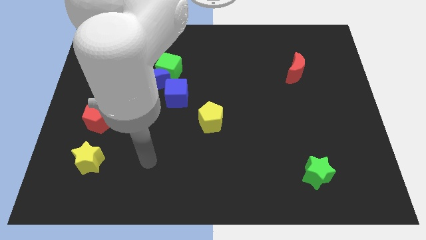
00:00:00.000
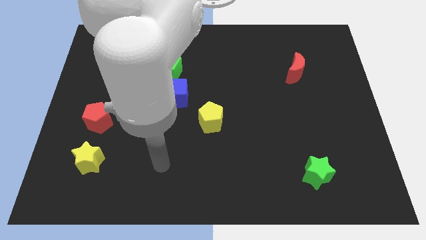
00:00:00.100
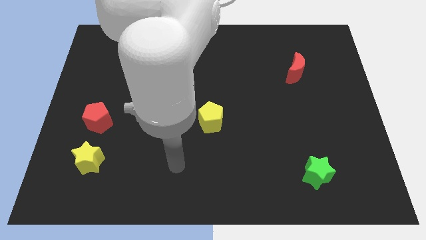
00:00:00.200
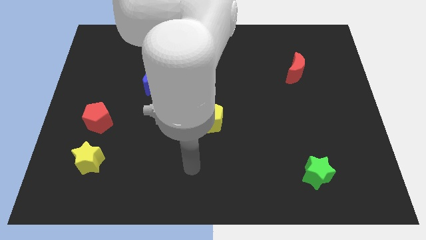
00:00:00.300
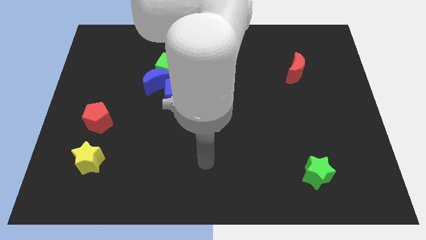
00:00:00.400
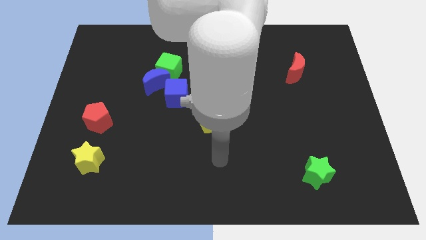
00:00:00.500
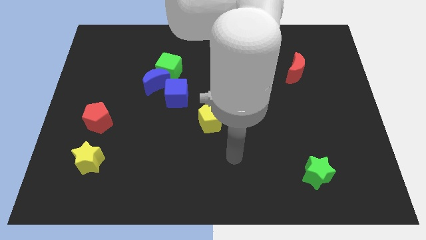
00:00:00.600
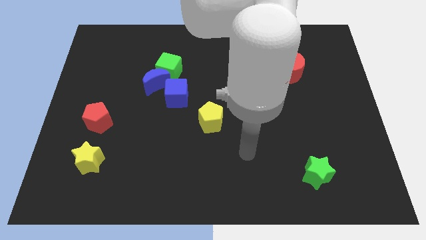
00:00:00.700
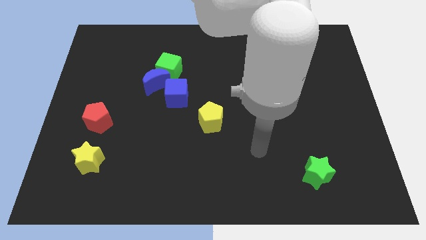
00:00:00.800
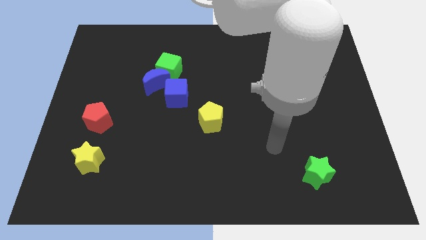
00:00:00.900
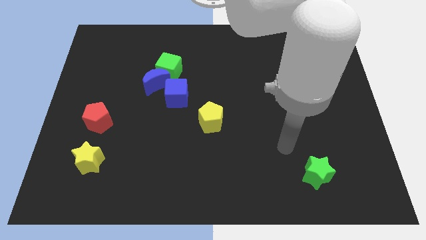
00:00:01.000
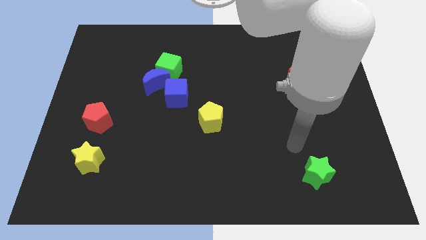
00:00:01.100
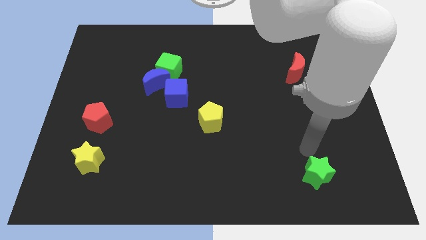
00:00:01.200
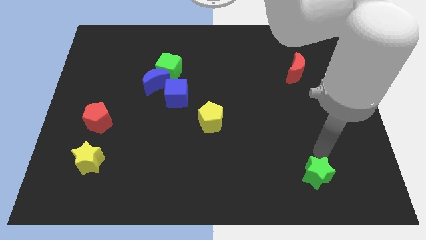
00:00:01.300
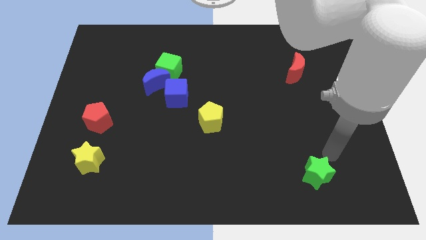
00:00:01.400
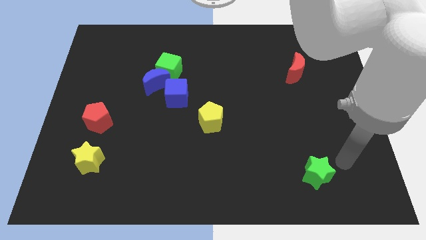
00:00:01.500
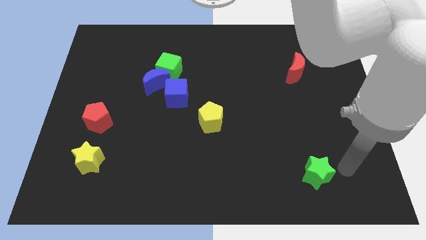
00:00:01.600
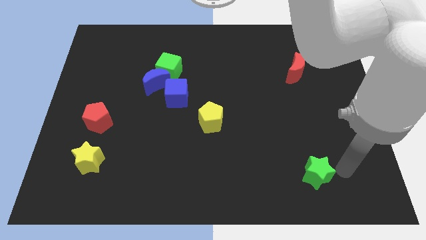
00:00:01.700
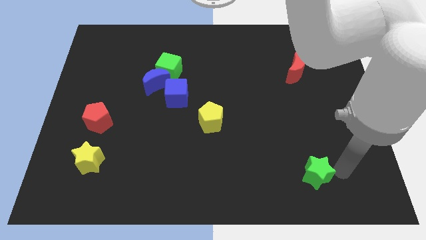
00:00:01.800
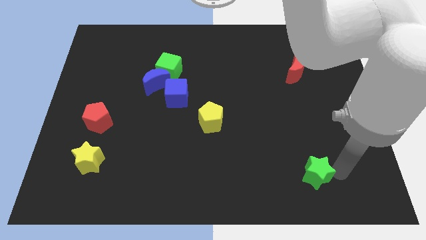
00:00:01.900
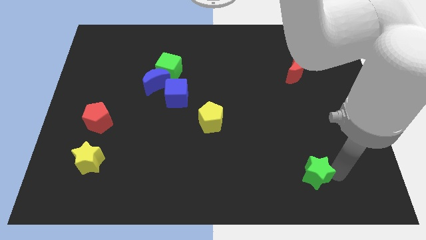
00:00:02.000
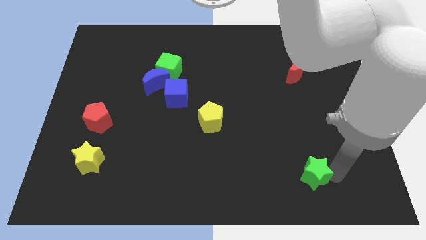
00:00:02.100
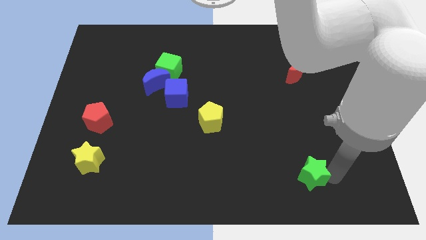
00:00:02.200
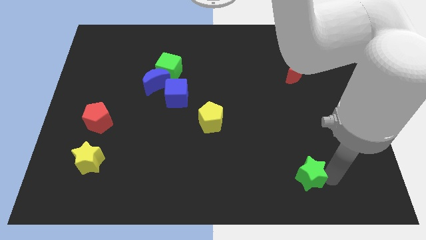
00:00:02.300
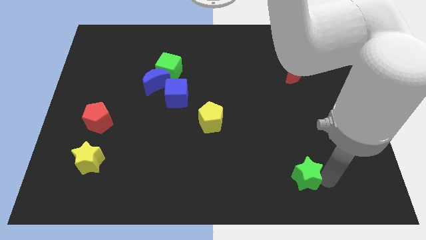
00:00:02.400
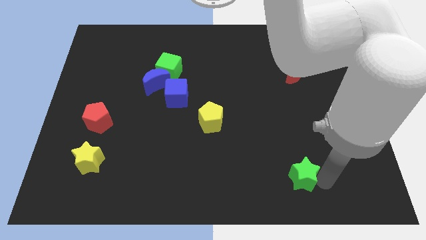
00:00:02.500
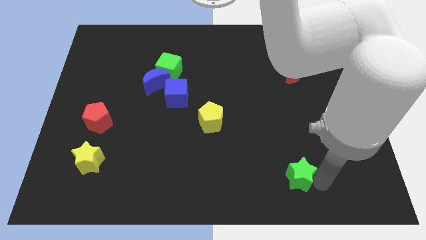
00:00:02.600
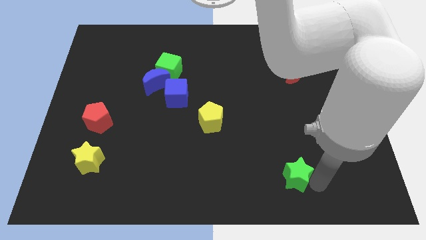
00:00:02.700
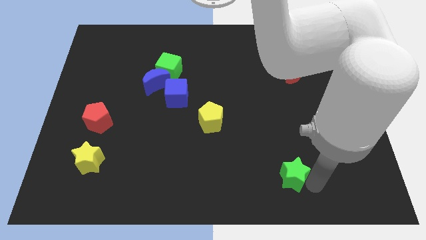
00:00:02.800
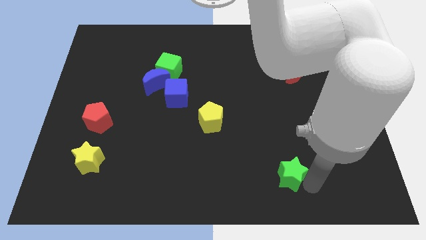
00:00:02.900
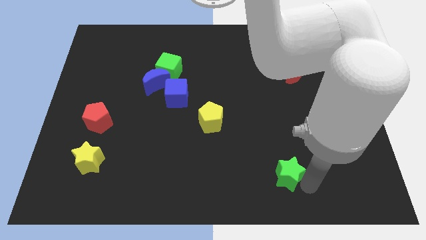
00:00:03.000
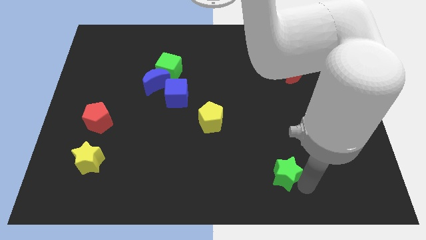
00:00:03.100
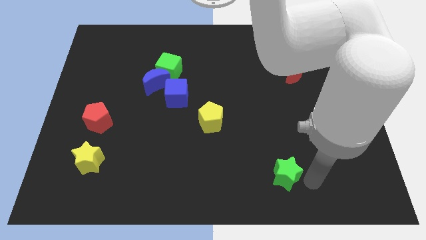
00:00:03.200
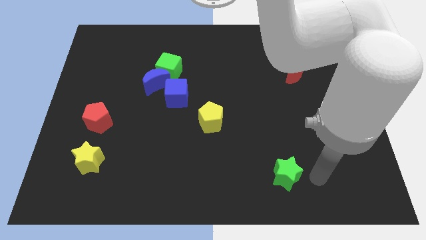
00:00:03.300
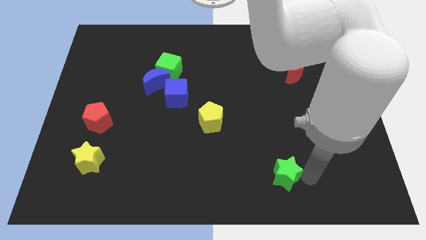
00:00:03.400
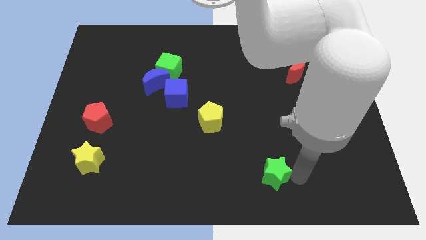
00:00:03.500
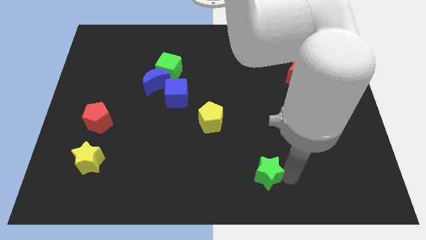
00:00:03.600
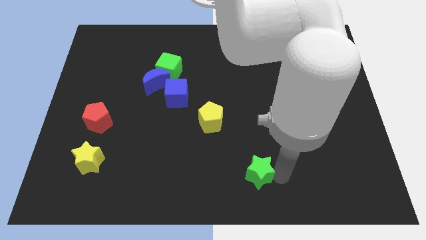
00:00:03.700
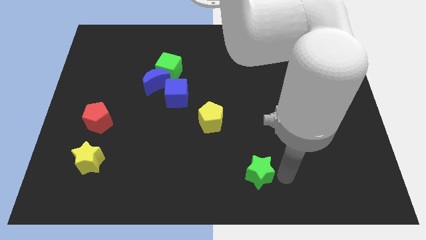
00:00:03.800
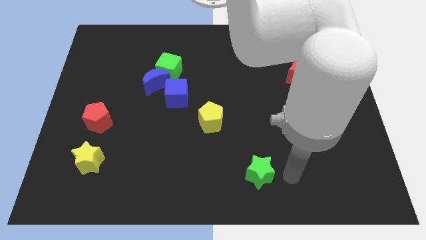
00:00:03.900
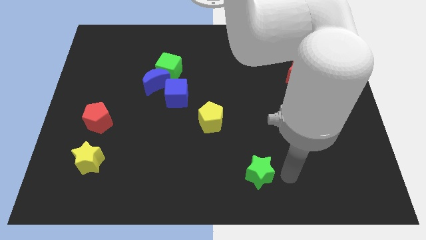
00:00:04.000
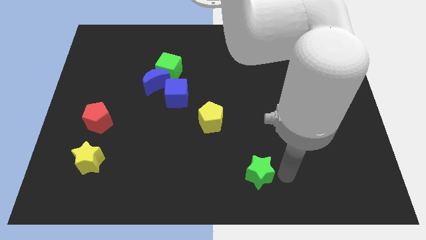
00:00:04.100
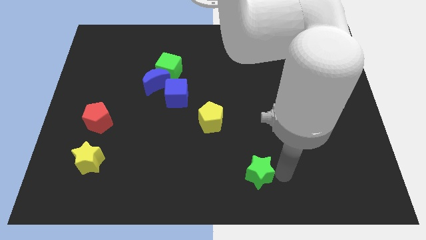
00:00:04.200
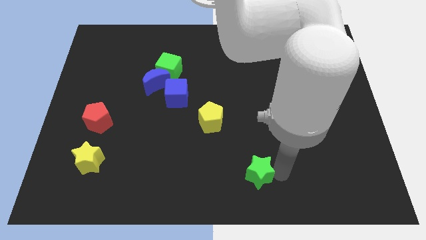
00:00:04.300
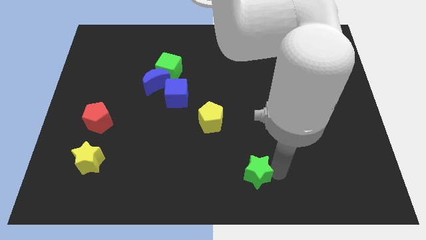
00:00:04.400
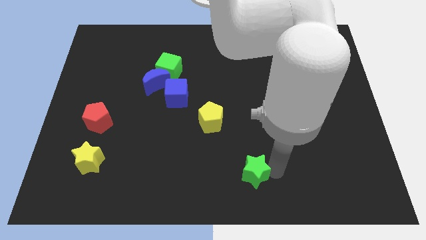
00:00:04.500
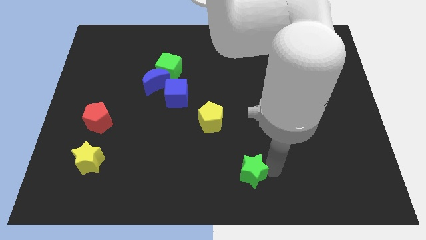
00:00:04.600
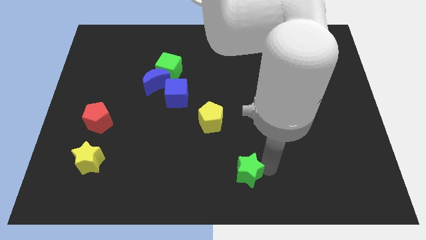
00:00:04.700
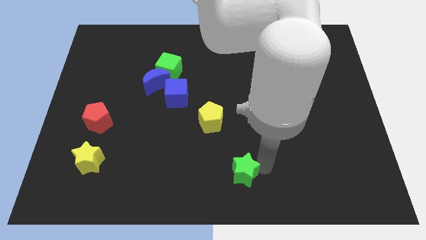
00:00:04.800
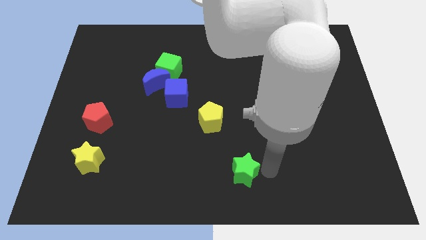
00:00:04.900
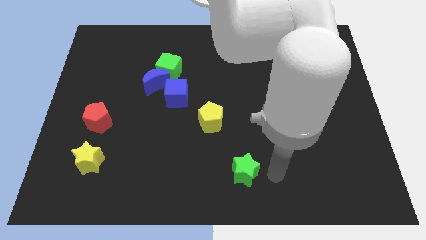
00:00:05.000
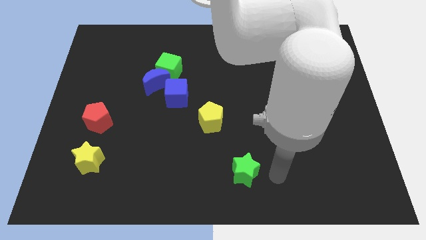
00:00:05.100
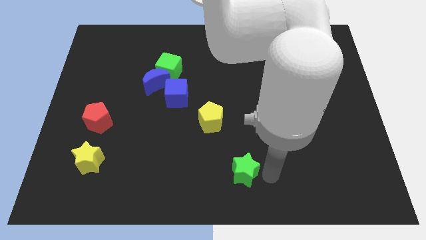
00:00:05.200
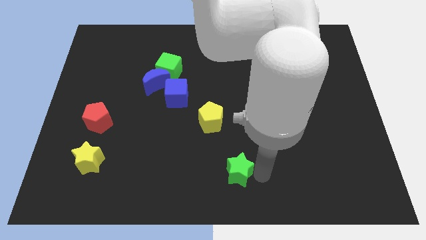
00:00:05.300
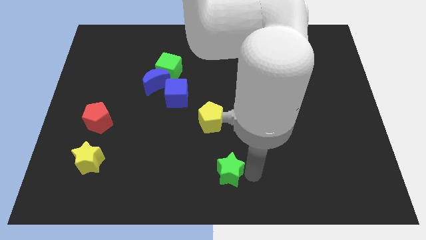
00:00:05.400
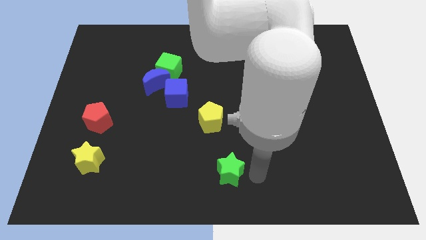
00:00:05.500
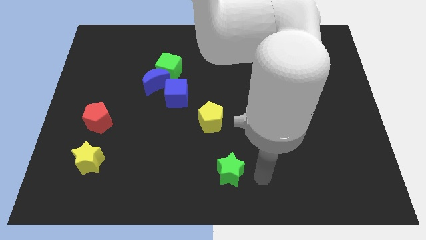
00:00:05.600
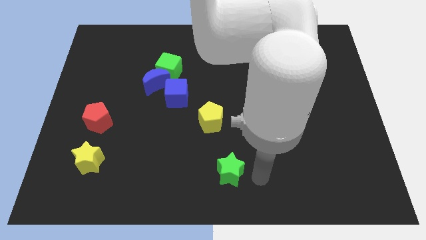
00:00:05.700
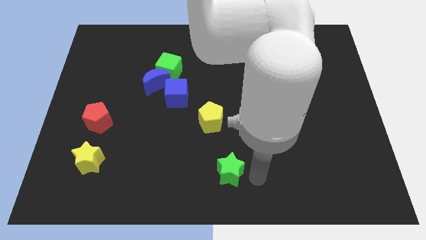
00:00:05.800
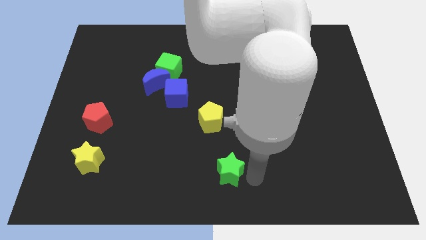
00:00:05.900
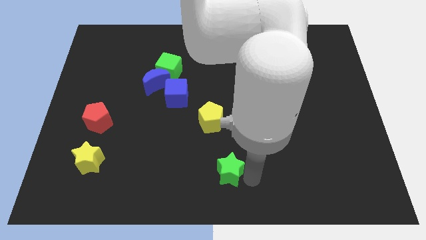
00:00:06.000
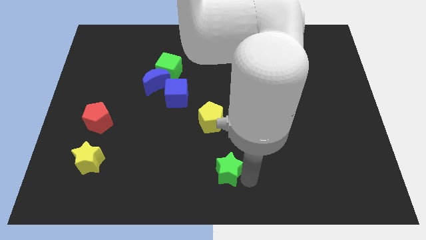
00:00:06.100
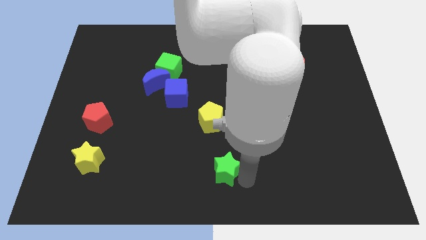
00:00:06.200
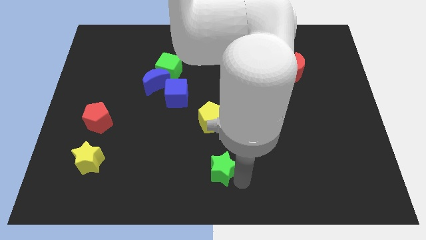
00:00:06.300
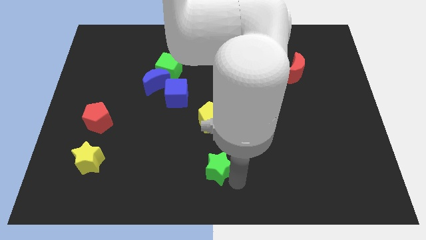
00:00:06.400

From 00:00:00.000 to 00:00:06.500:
slide the green star to the left

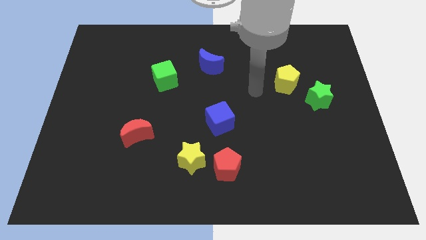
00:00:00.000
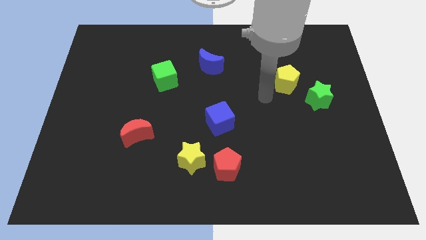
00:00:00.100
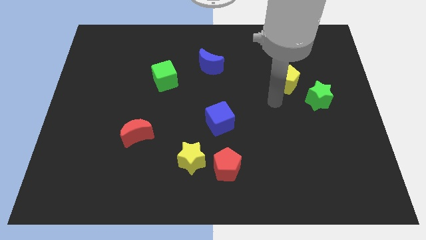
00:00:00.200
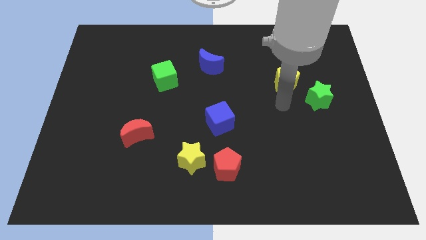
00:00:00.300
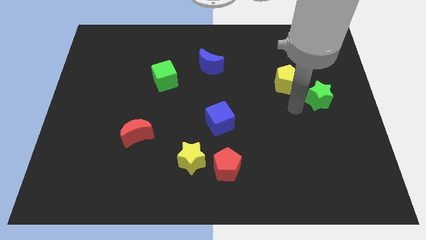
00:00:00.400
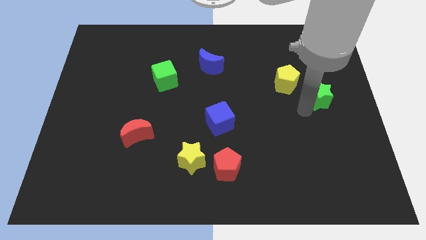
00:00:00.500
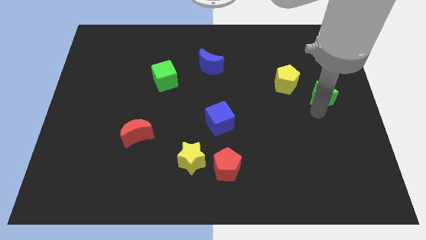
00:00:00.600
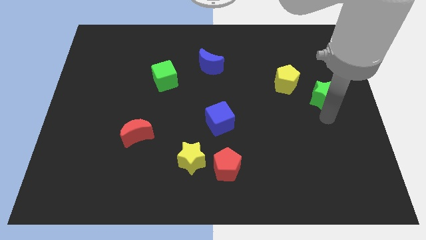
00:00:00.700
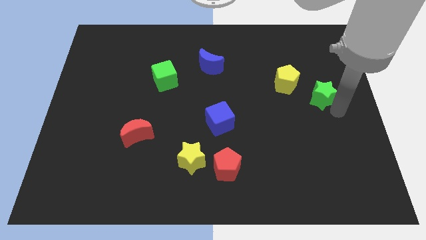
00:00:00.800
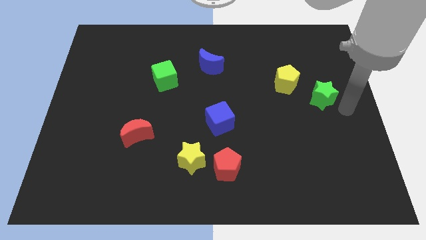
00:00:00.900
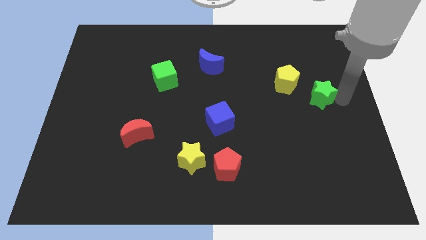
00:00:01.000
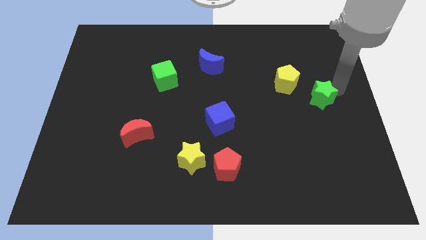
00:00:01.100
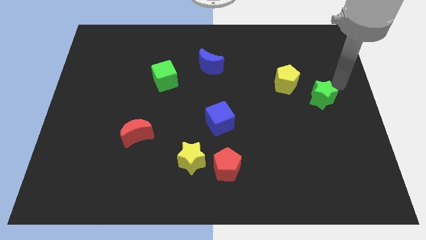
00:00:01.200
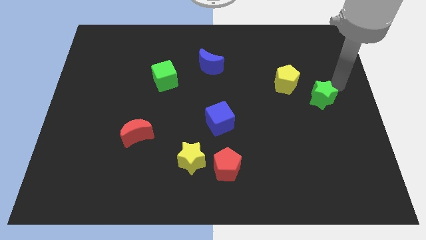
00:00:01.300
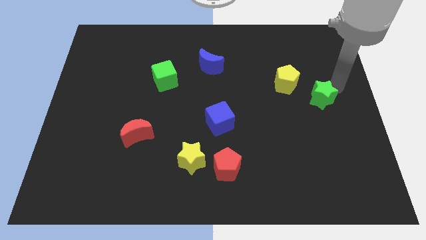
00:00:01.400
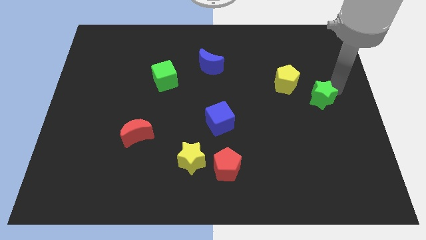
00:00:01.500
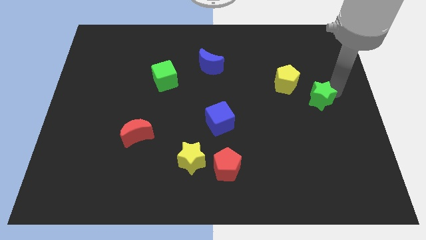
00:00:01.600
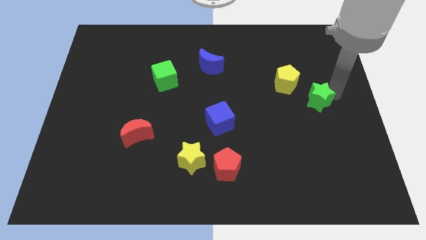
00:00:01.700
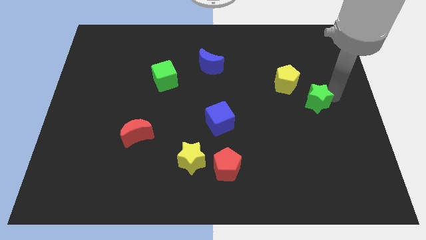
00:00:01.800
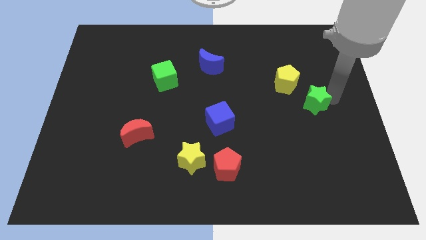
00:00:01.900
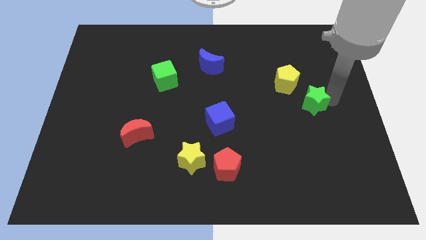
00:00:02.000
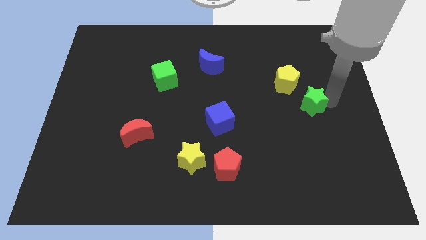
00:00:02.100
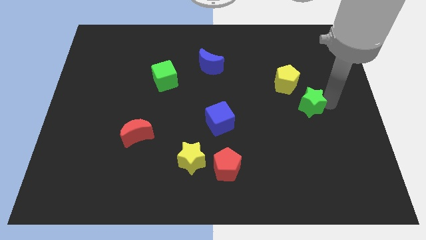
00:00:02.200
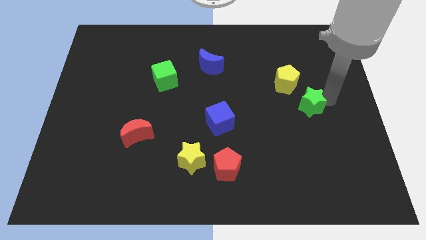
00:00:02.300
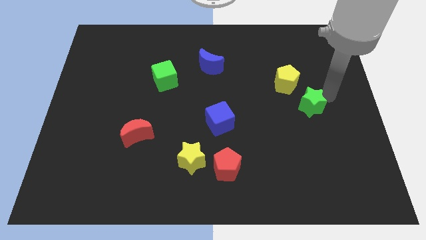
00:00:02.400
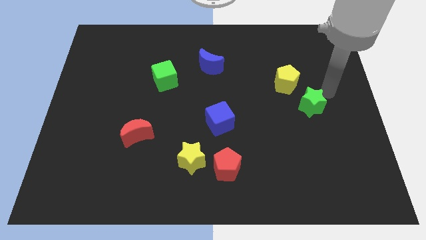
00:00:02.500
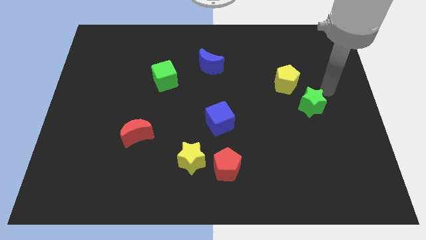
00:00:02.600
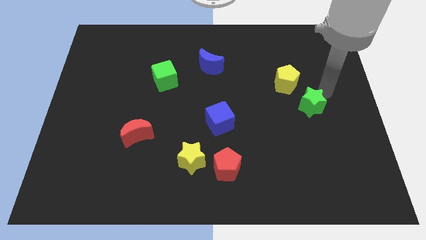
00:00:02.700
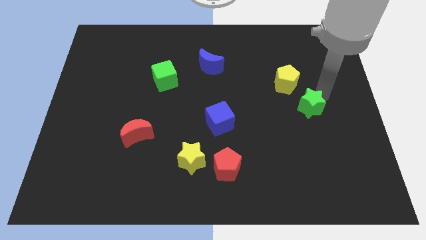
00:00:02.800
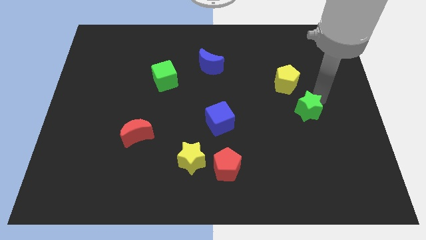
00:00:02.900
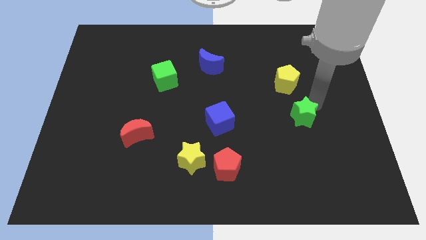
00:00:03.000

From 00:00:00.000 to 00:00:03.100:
slide the green star somewhat down and left diagonally
